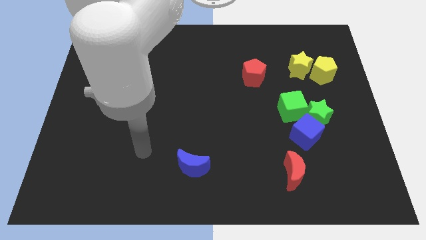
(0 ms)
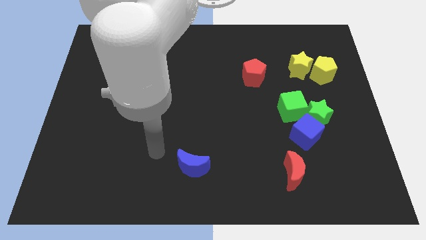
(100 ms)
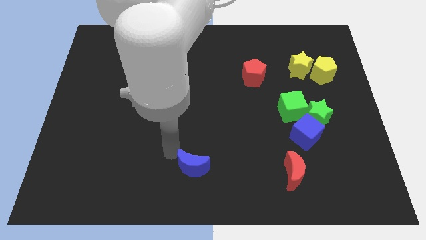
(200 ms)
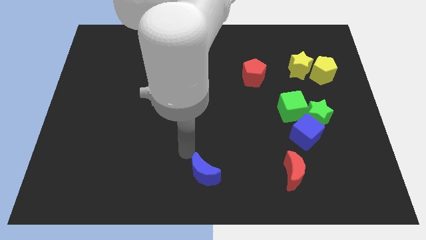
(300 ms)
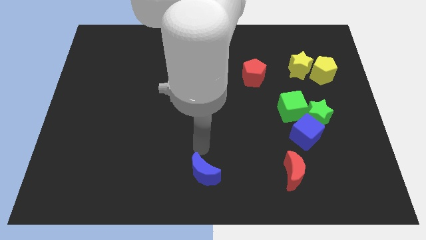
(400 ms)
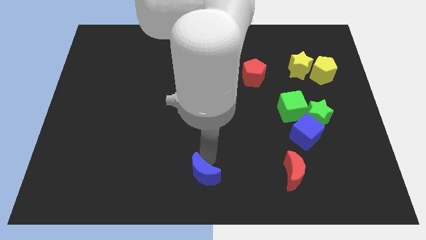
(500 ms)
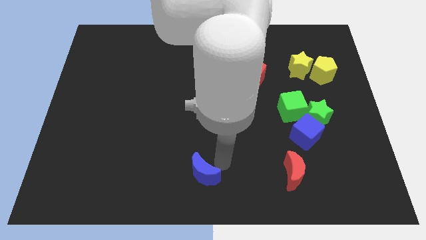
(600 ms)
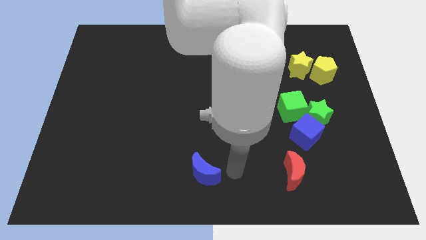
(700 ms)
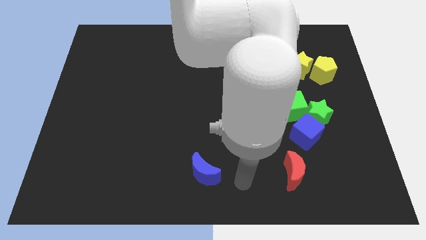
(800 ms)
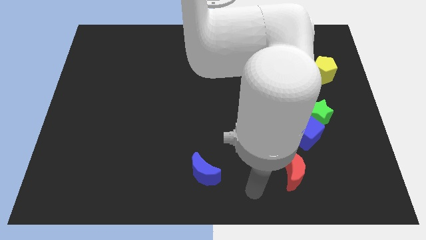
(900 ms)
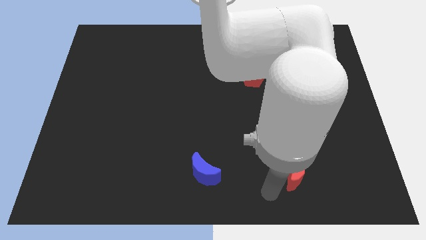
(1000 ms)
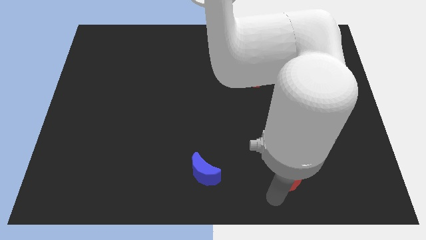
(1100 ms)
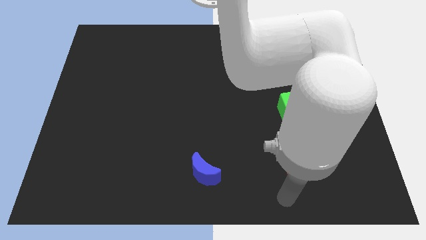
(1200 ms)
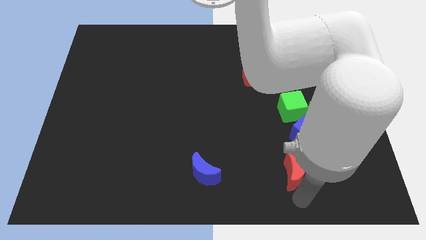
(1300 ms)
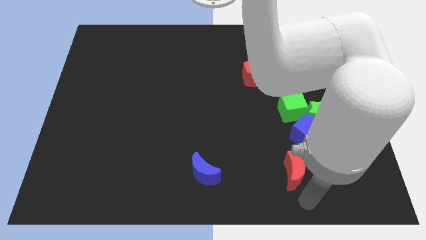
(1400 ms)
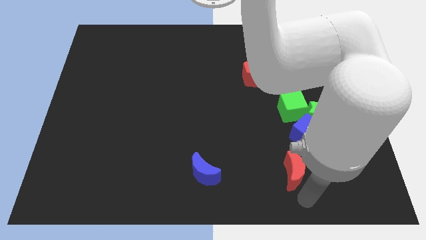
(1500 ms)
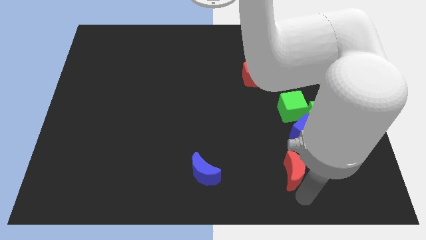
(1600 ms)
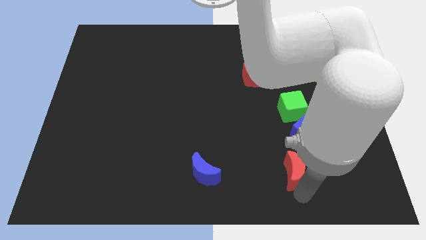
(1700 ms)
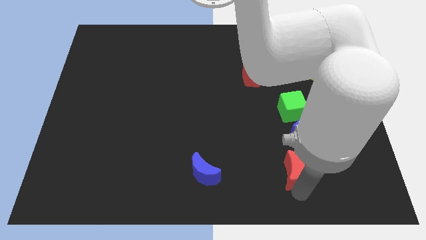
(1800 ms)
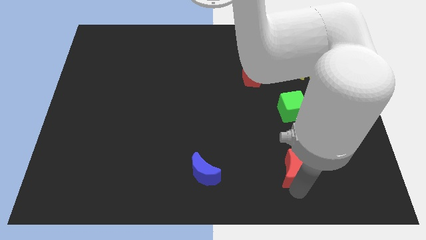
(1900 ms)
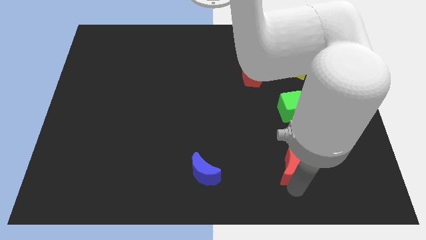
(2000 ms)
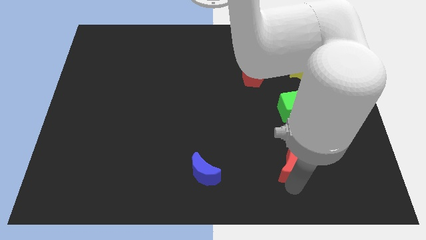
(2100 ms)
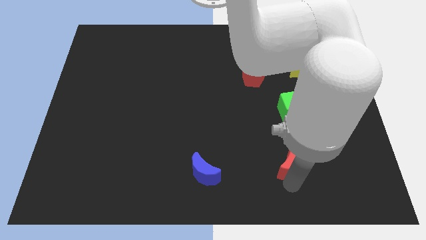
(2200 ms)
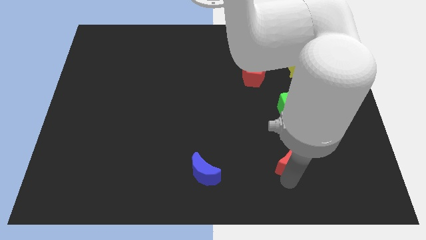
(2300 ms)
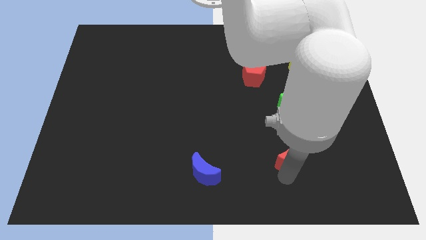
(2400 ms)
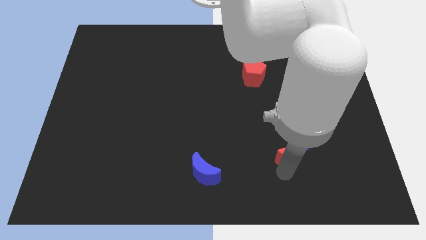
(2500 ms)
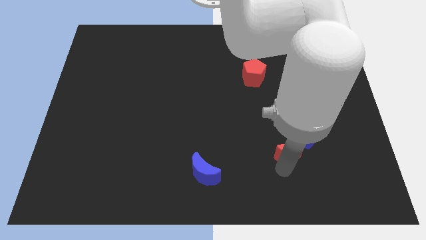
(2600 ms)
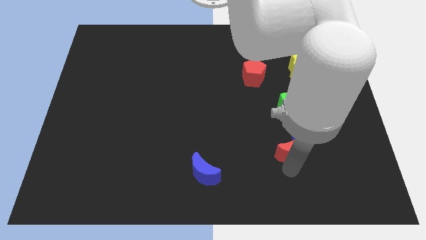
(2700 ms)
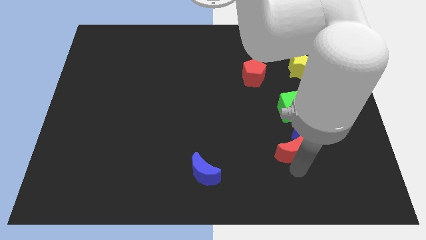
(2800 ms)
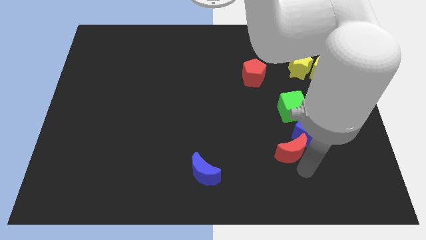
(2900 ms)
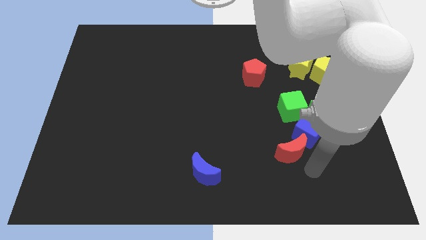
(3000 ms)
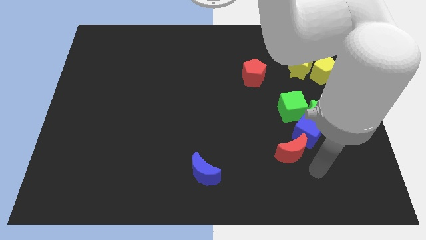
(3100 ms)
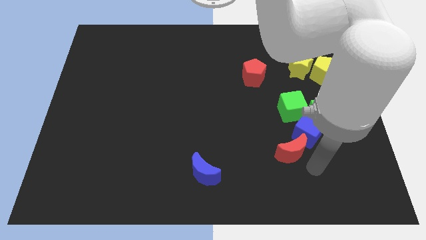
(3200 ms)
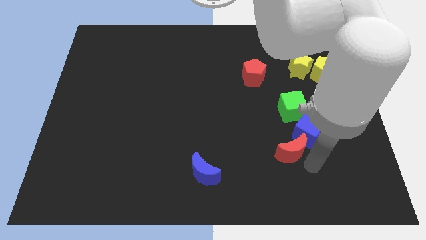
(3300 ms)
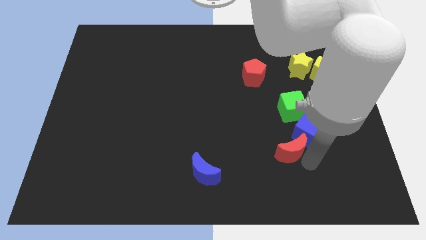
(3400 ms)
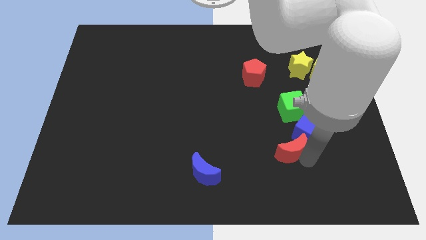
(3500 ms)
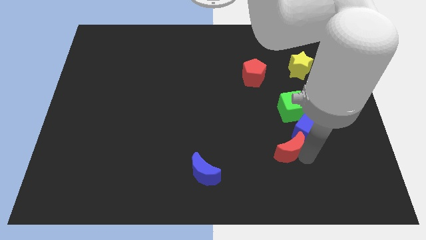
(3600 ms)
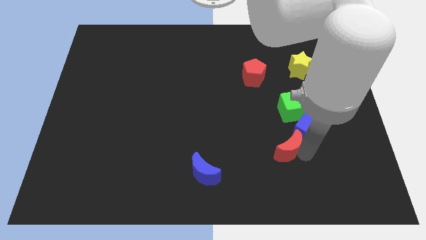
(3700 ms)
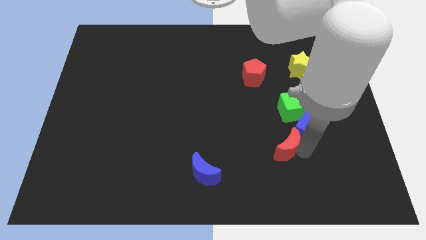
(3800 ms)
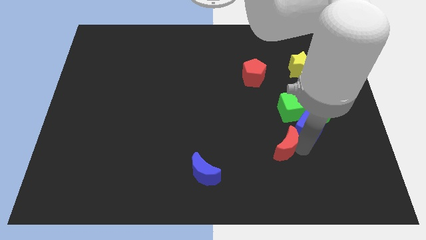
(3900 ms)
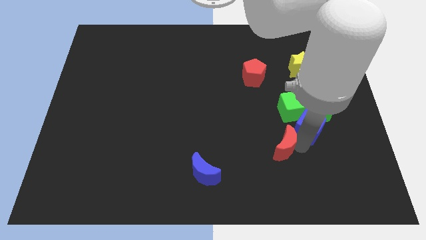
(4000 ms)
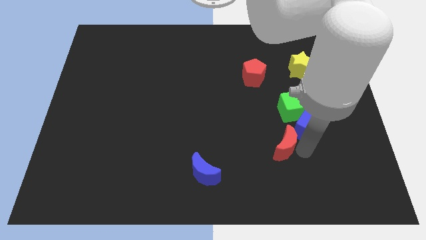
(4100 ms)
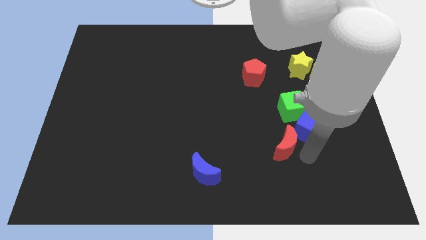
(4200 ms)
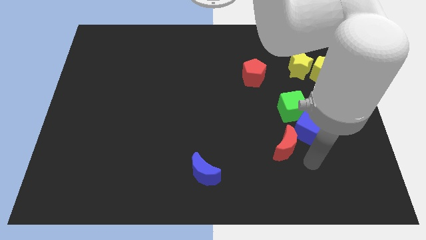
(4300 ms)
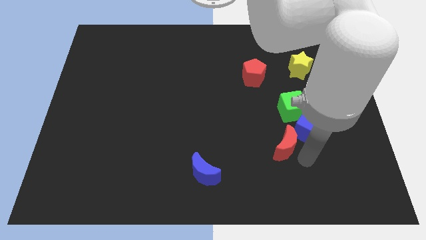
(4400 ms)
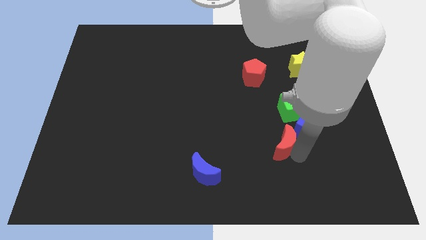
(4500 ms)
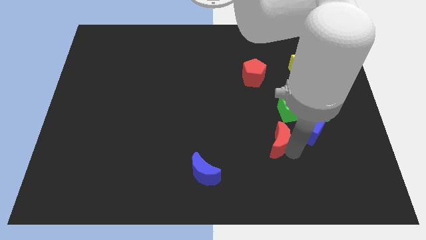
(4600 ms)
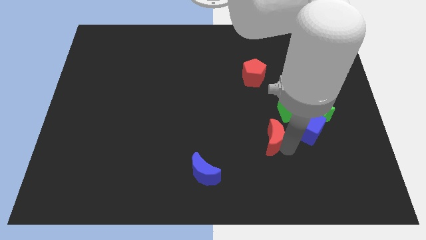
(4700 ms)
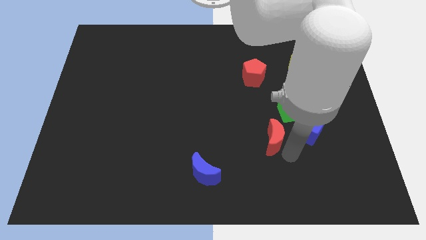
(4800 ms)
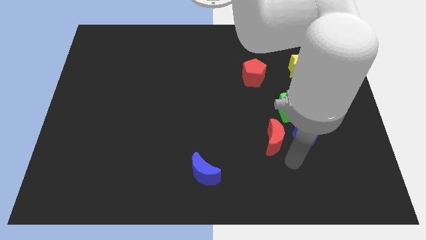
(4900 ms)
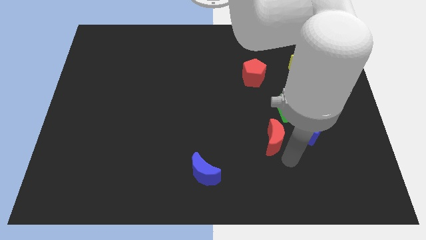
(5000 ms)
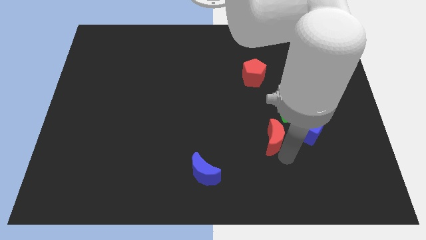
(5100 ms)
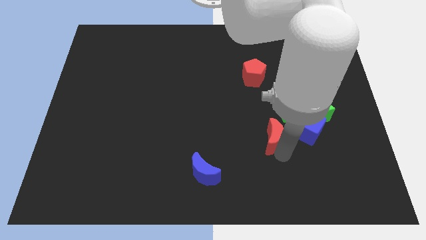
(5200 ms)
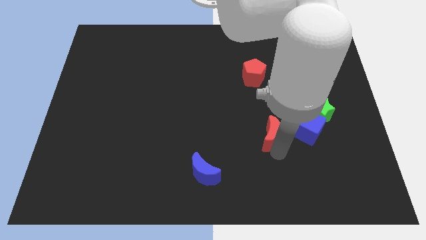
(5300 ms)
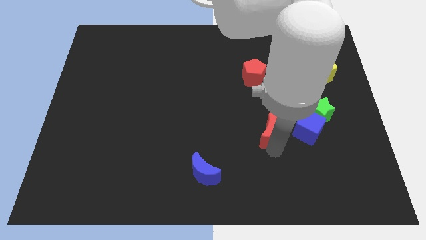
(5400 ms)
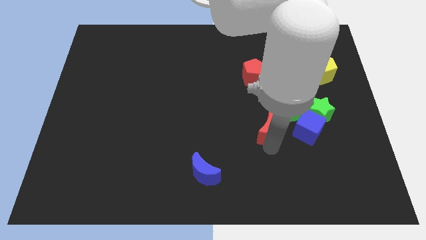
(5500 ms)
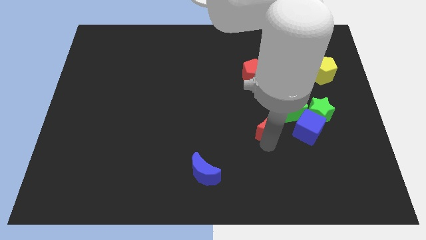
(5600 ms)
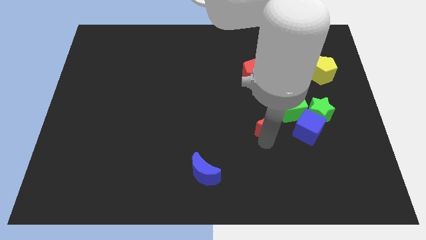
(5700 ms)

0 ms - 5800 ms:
put the red moon to the left of the green cube

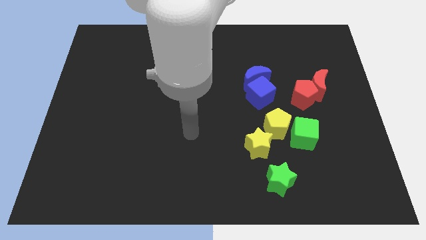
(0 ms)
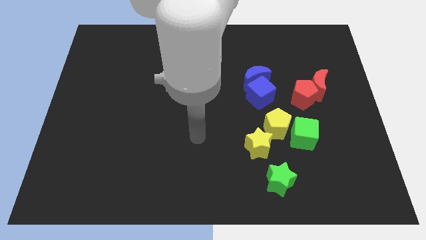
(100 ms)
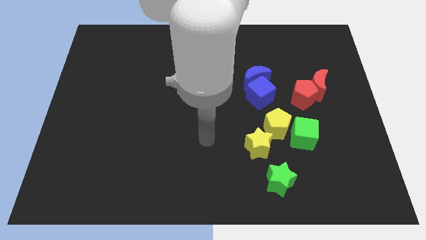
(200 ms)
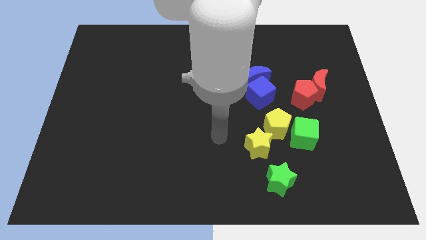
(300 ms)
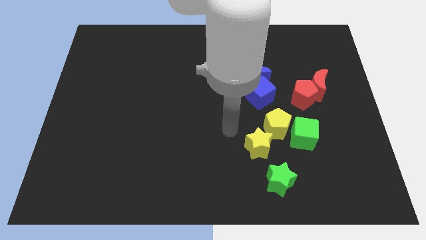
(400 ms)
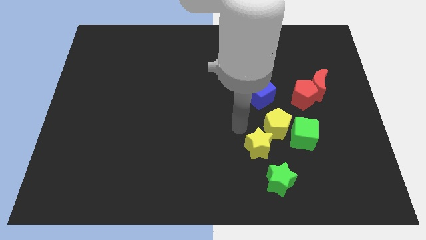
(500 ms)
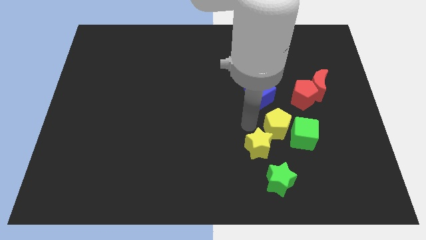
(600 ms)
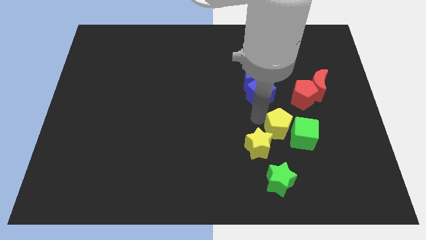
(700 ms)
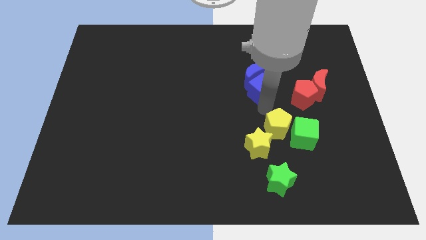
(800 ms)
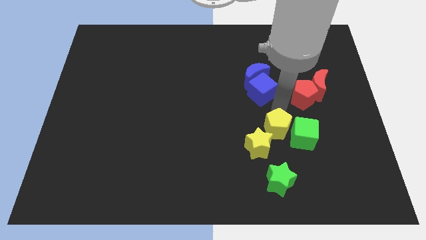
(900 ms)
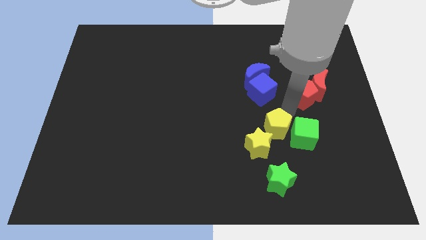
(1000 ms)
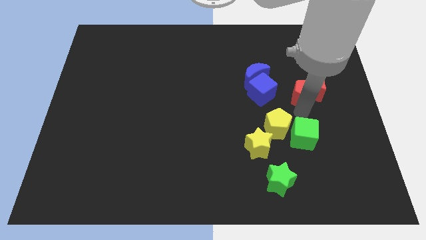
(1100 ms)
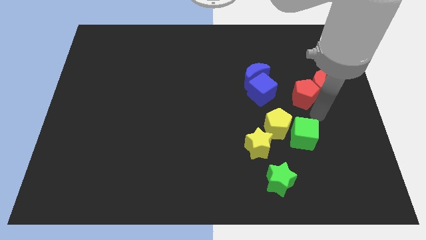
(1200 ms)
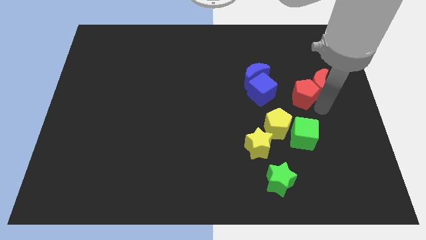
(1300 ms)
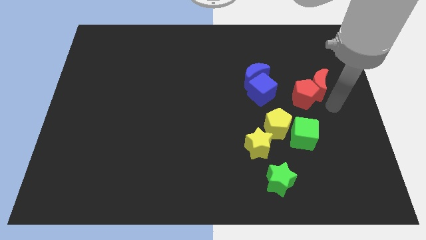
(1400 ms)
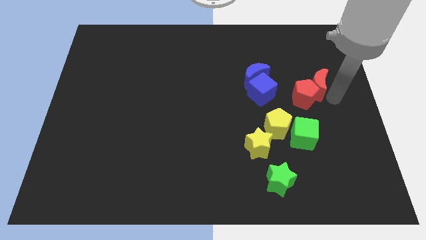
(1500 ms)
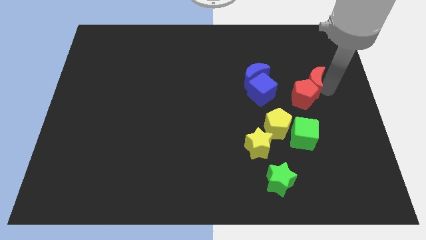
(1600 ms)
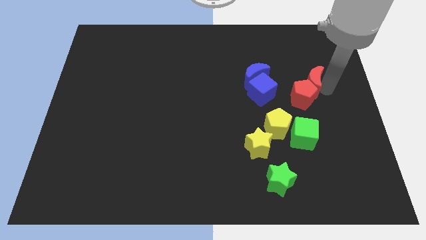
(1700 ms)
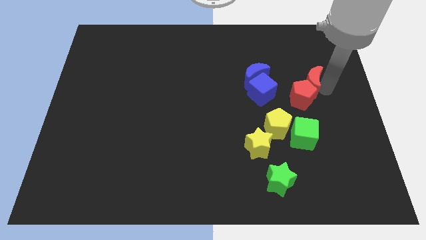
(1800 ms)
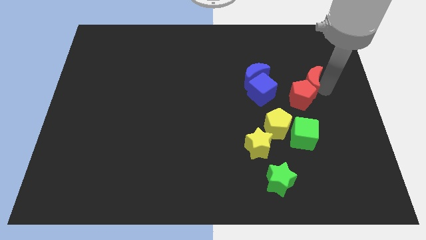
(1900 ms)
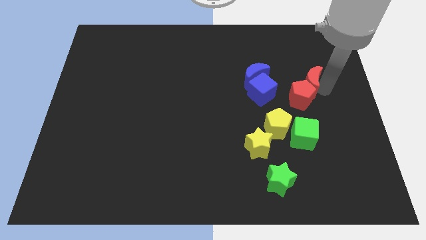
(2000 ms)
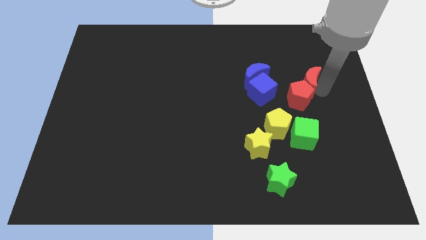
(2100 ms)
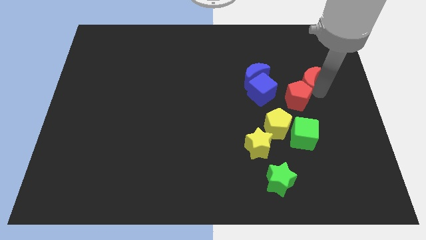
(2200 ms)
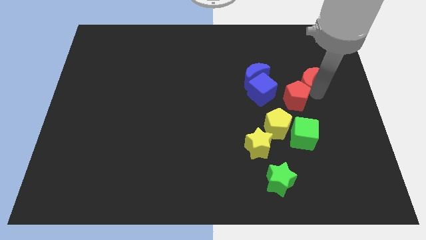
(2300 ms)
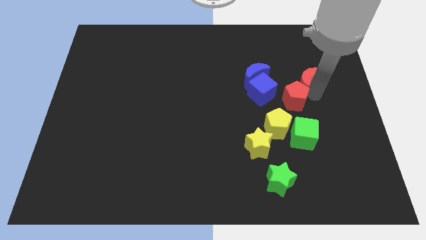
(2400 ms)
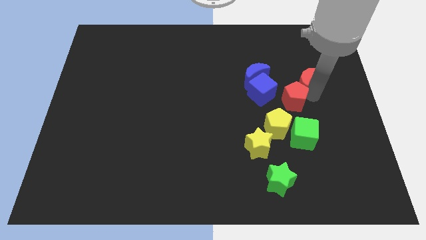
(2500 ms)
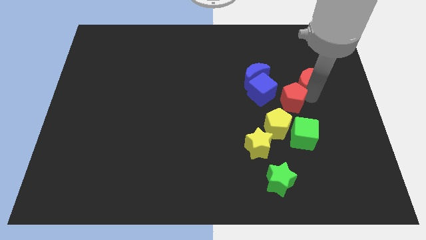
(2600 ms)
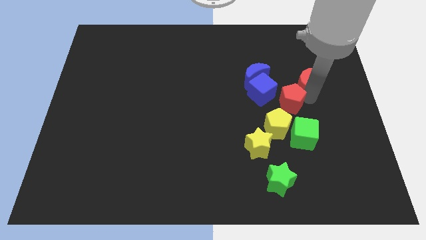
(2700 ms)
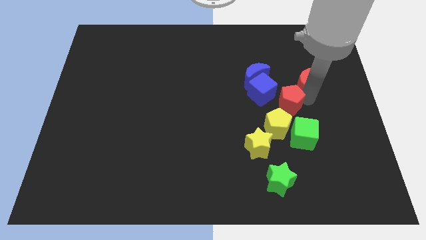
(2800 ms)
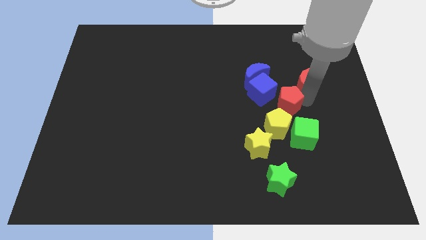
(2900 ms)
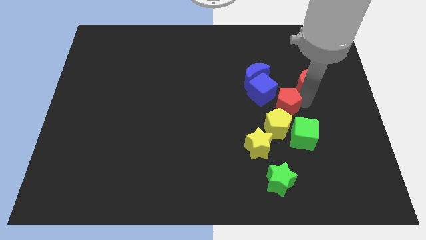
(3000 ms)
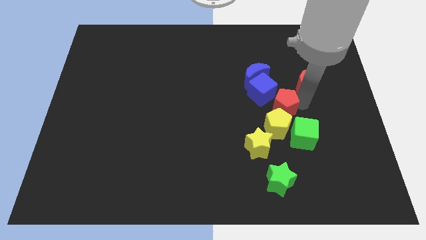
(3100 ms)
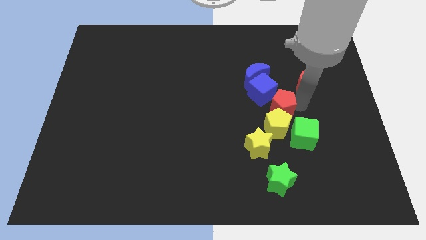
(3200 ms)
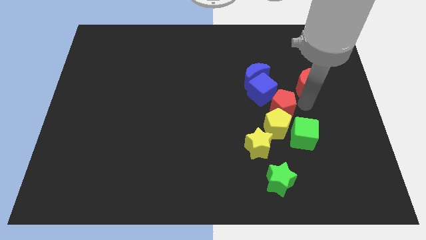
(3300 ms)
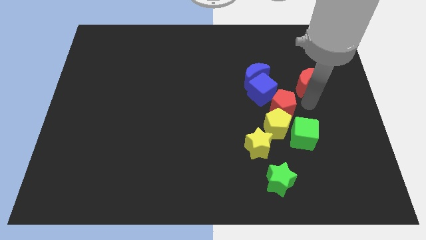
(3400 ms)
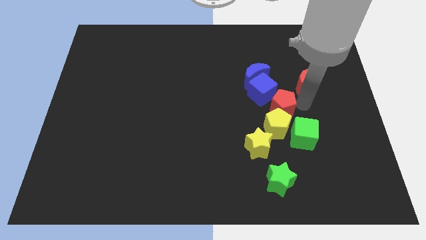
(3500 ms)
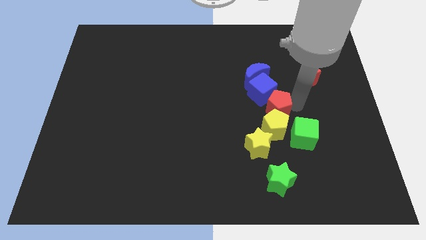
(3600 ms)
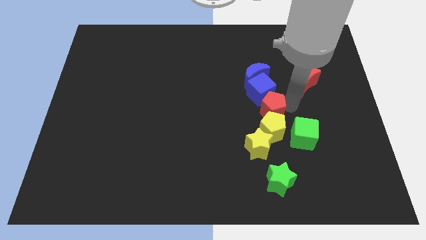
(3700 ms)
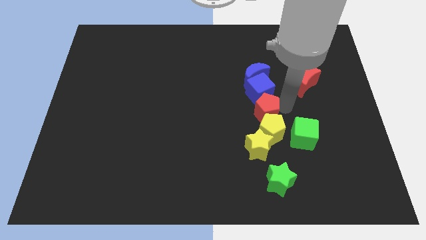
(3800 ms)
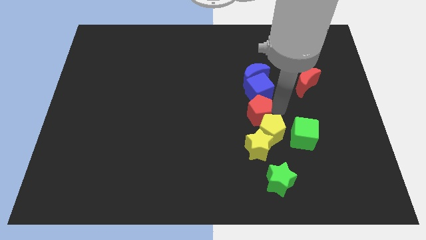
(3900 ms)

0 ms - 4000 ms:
slide the red pentagon to the bottom left side of the blue cube
